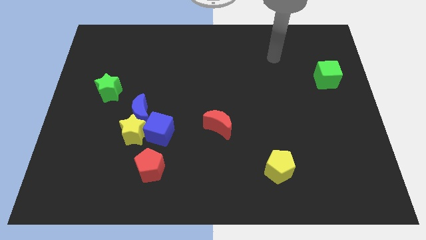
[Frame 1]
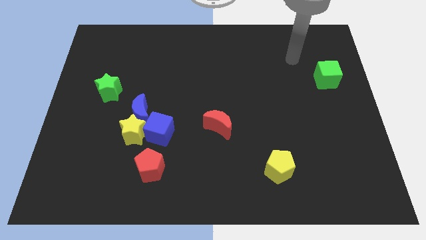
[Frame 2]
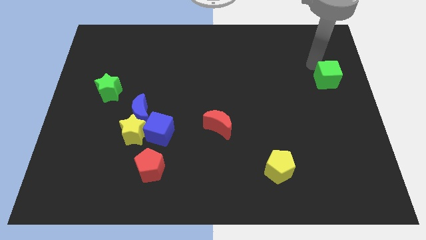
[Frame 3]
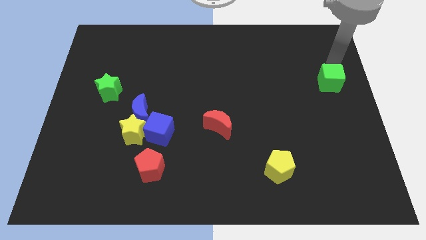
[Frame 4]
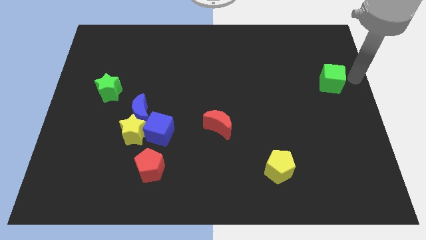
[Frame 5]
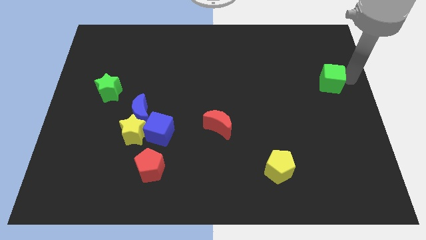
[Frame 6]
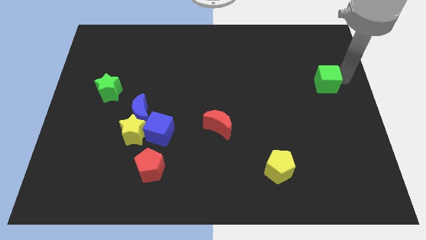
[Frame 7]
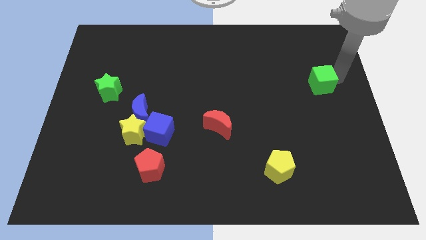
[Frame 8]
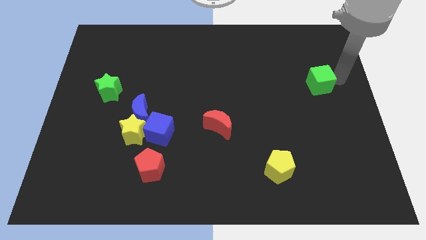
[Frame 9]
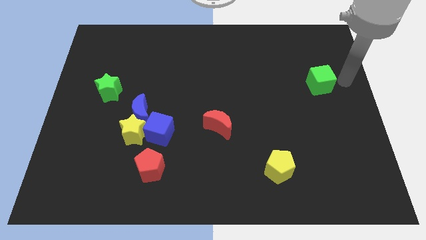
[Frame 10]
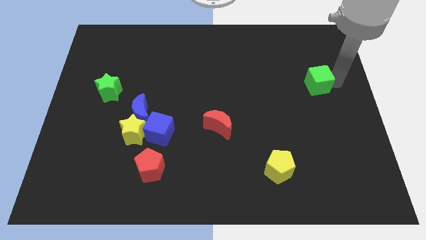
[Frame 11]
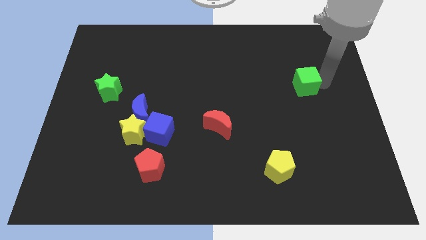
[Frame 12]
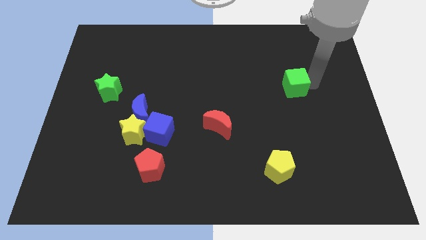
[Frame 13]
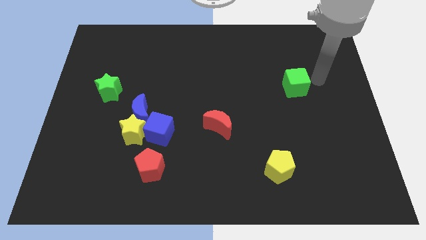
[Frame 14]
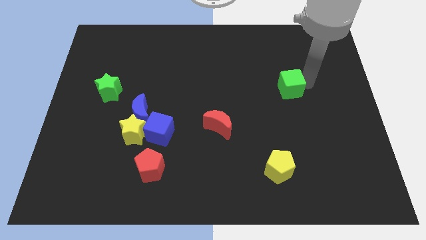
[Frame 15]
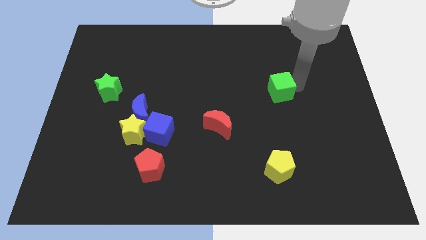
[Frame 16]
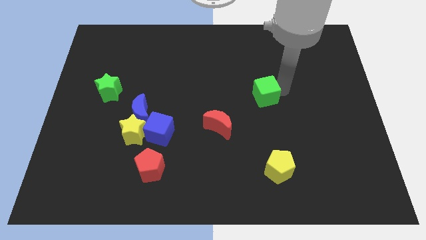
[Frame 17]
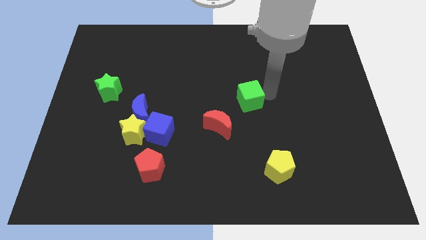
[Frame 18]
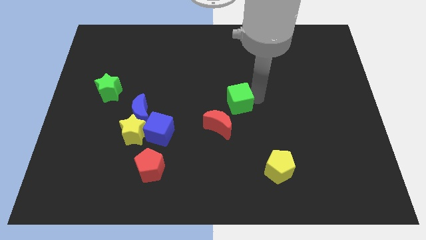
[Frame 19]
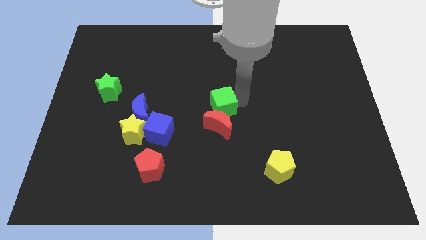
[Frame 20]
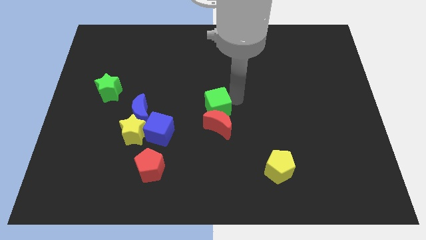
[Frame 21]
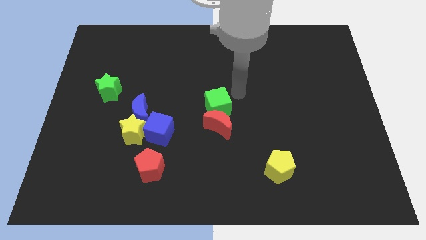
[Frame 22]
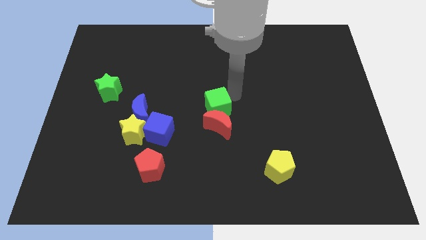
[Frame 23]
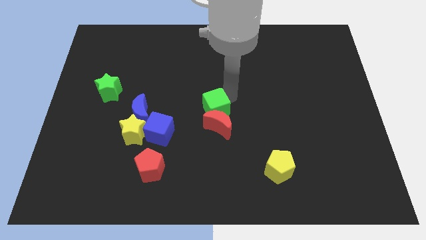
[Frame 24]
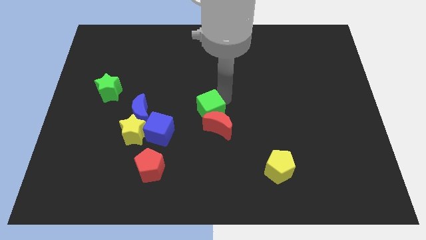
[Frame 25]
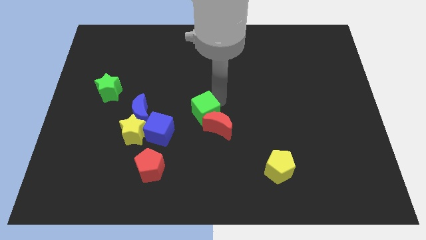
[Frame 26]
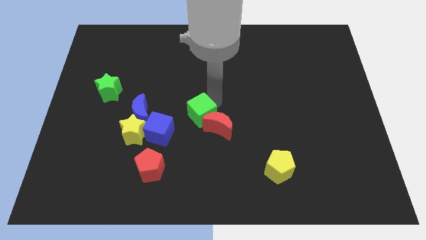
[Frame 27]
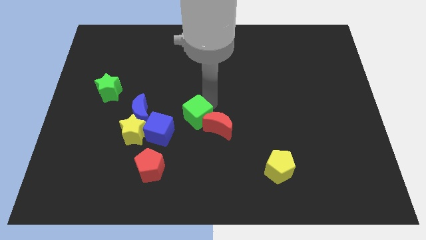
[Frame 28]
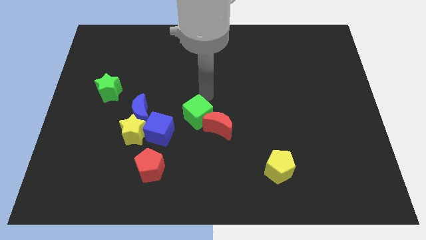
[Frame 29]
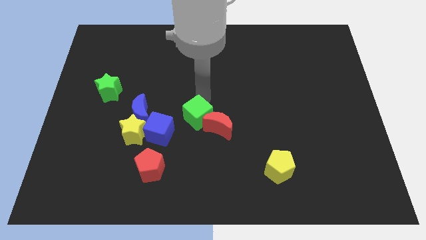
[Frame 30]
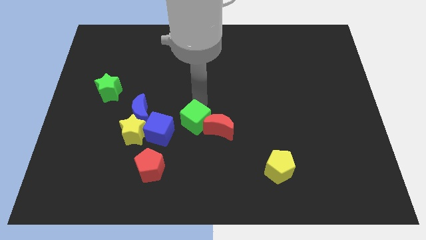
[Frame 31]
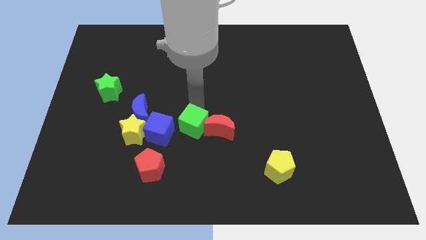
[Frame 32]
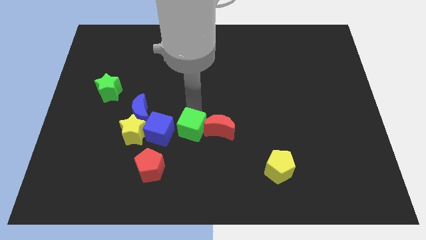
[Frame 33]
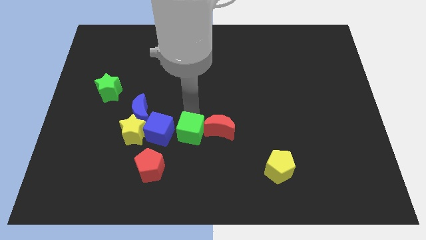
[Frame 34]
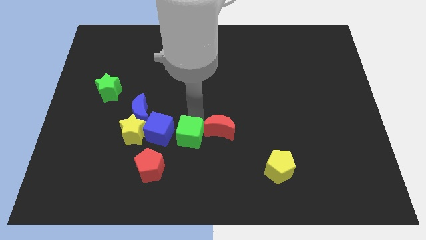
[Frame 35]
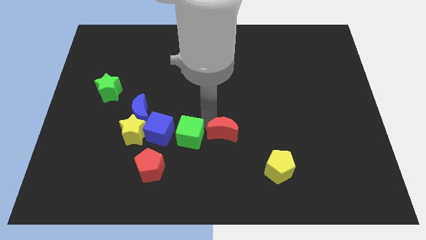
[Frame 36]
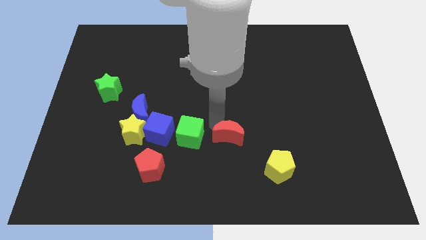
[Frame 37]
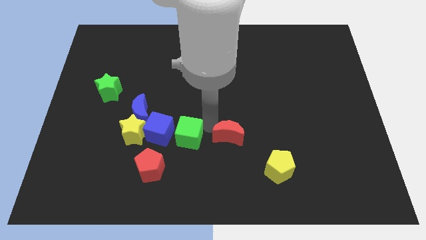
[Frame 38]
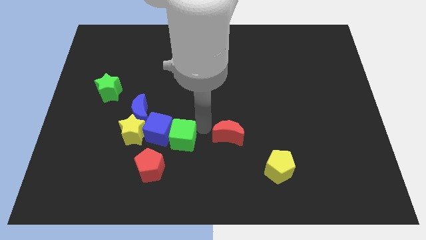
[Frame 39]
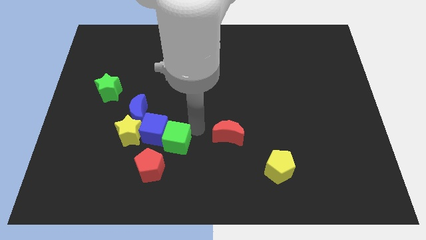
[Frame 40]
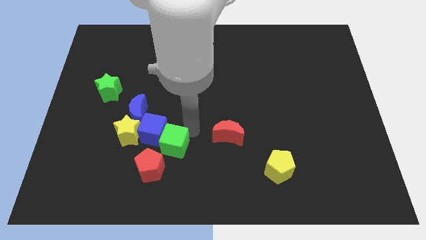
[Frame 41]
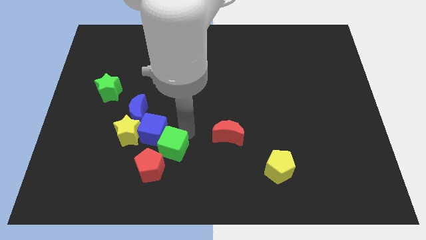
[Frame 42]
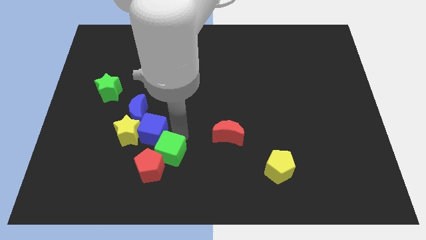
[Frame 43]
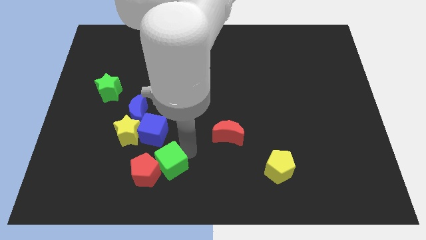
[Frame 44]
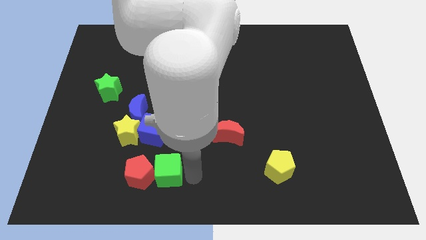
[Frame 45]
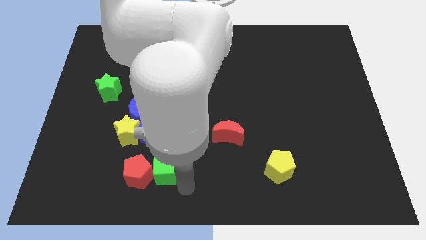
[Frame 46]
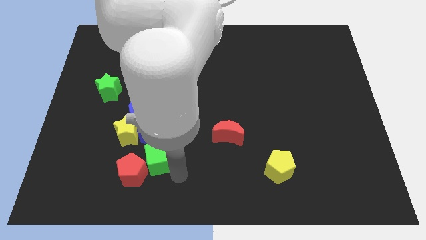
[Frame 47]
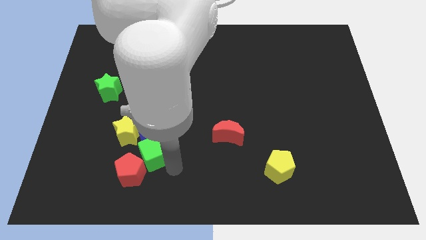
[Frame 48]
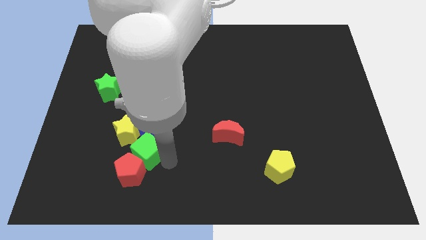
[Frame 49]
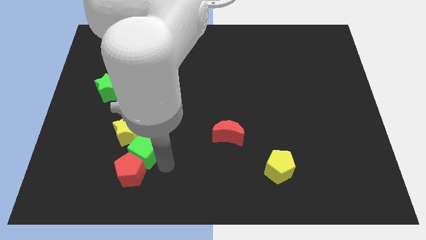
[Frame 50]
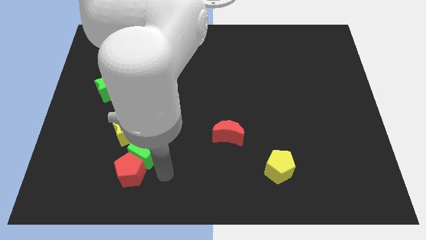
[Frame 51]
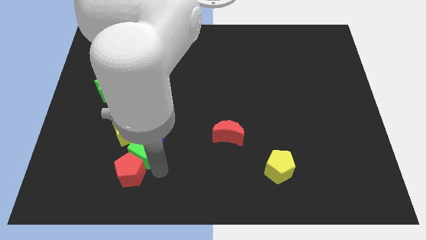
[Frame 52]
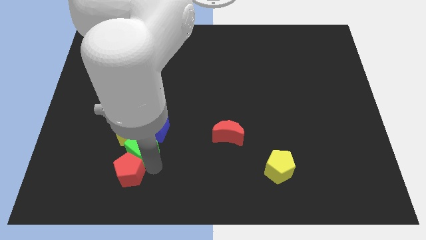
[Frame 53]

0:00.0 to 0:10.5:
push the green cube towards the yellow star

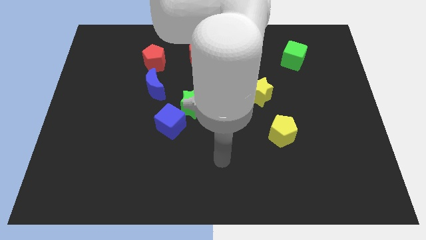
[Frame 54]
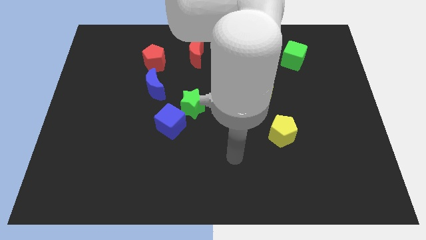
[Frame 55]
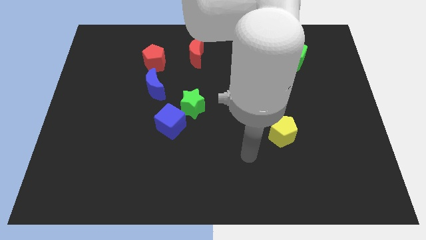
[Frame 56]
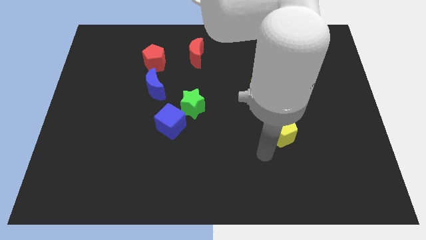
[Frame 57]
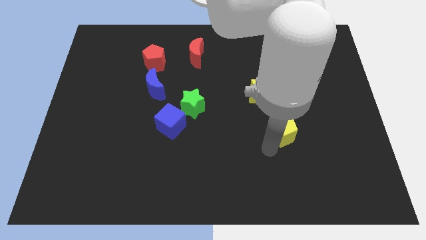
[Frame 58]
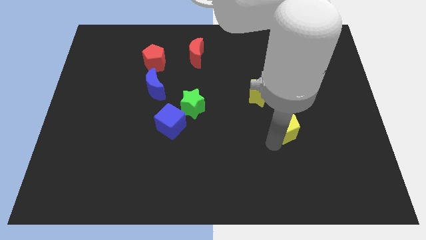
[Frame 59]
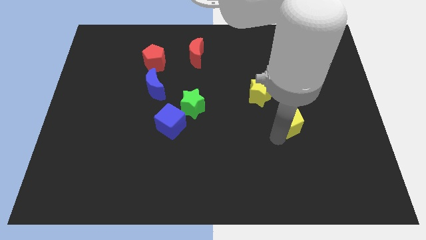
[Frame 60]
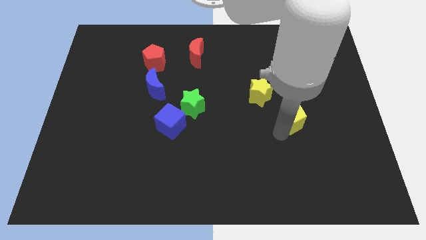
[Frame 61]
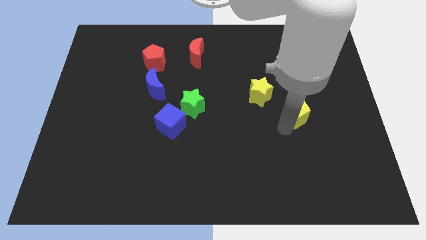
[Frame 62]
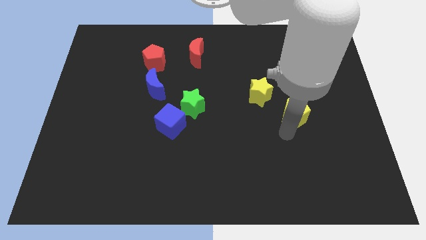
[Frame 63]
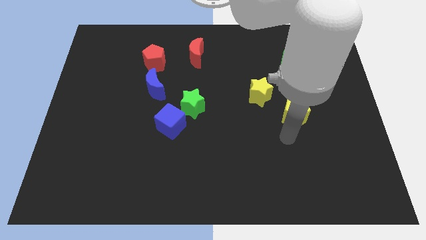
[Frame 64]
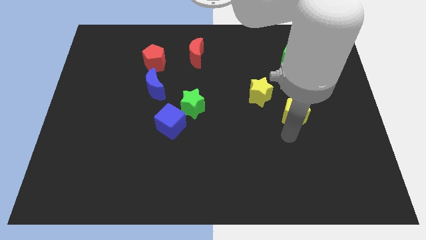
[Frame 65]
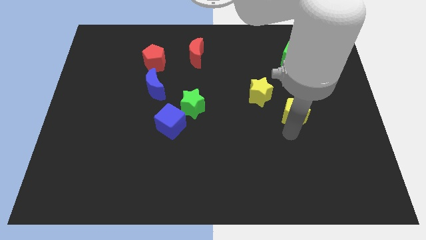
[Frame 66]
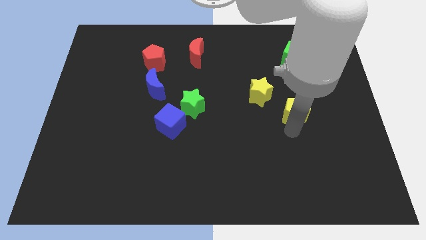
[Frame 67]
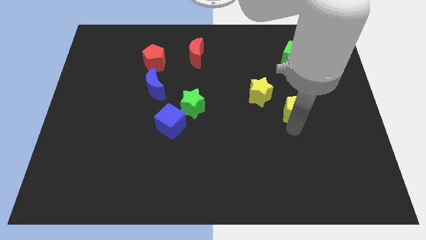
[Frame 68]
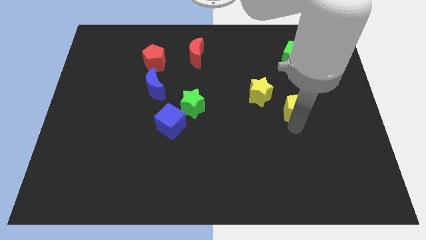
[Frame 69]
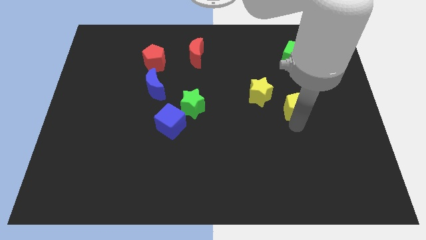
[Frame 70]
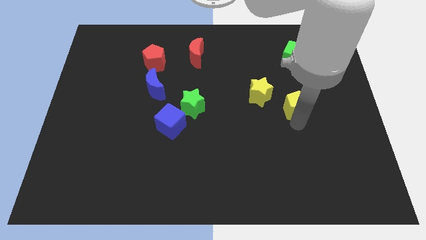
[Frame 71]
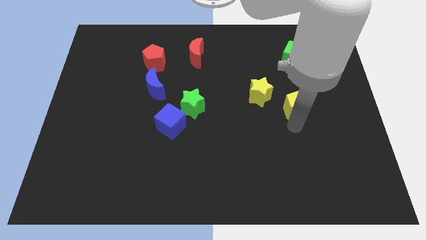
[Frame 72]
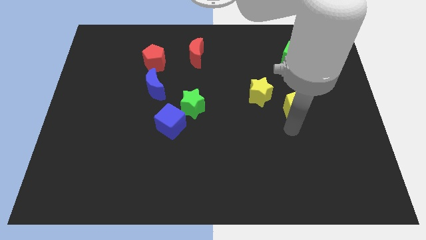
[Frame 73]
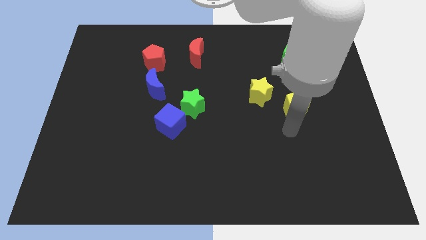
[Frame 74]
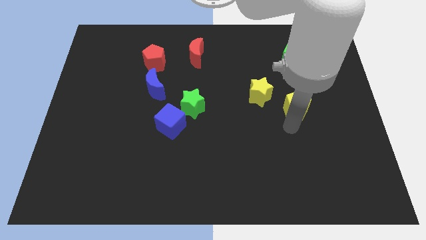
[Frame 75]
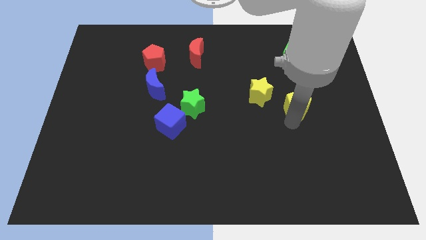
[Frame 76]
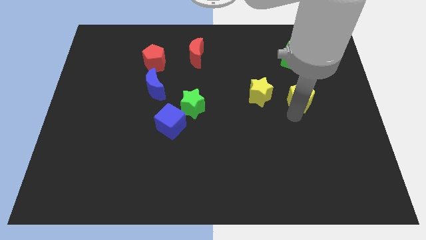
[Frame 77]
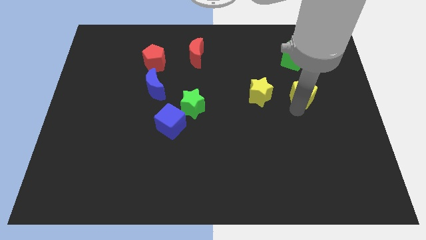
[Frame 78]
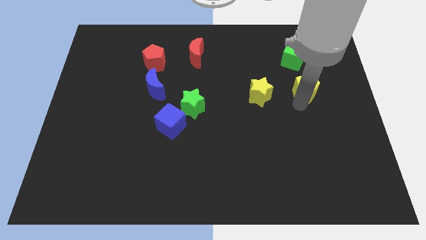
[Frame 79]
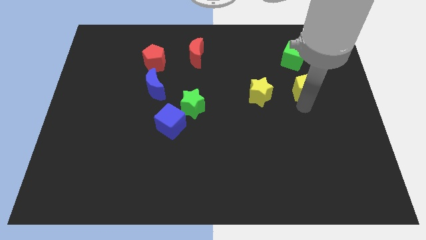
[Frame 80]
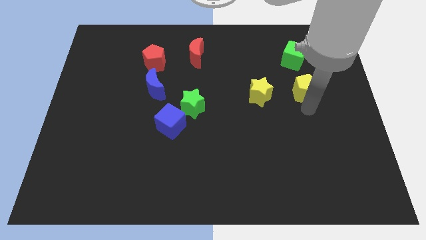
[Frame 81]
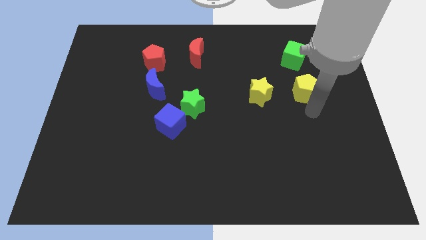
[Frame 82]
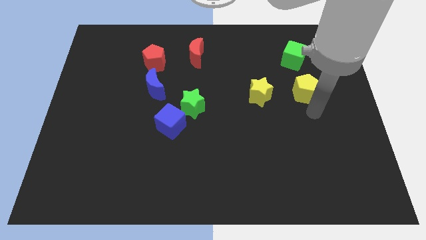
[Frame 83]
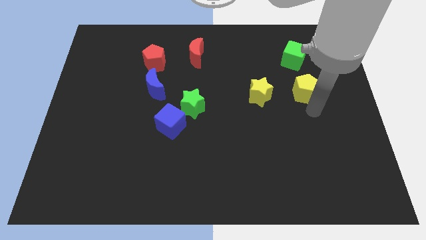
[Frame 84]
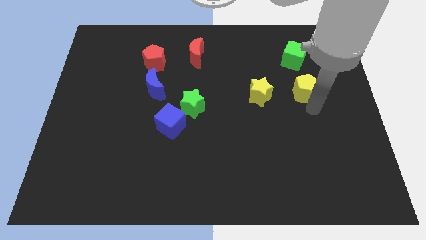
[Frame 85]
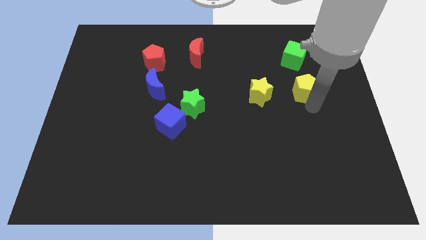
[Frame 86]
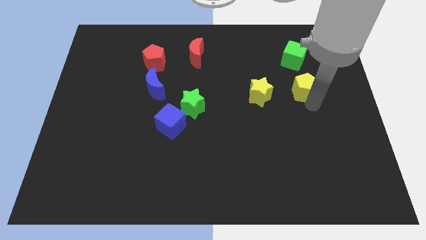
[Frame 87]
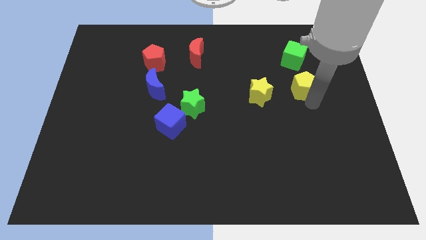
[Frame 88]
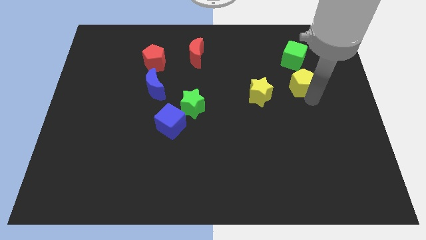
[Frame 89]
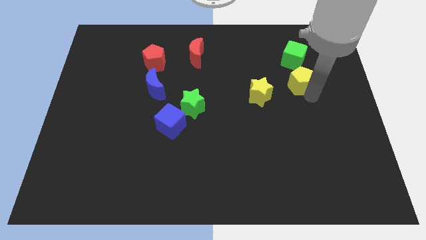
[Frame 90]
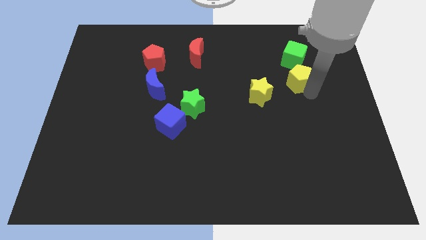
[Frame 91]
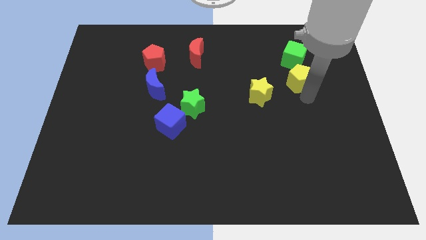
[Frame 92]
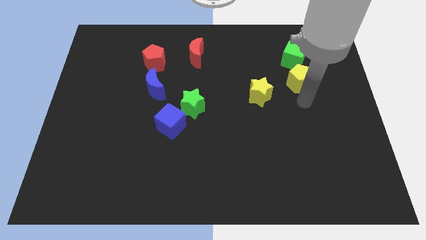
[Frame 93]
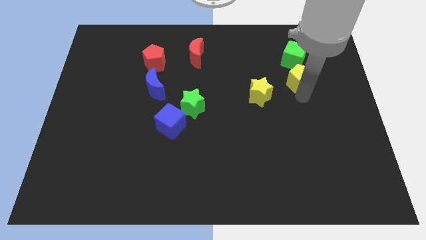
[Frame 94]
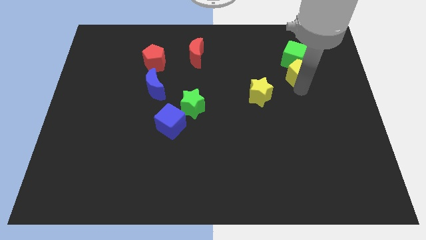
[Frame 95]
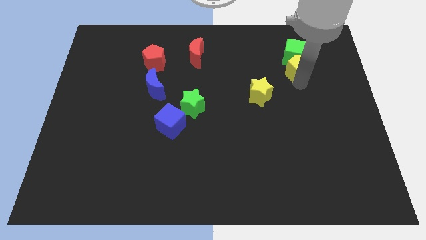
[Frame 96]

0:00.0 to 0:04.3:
move the yellow pentagon towards the green cube
